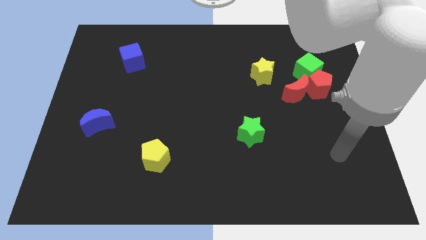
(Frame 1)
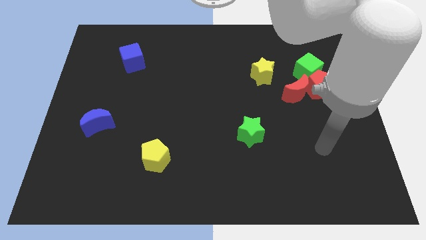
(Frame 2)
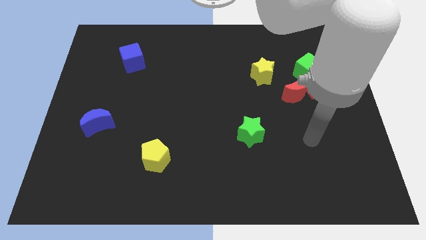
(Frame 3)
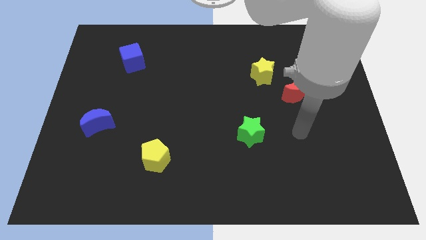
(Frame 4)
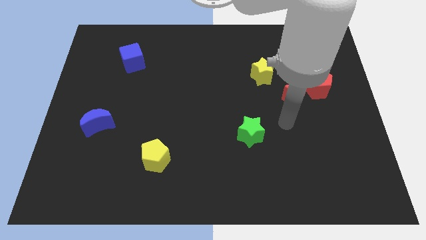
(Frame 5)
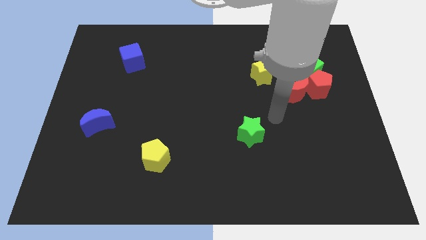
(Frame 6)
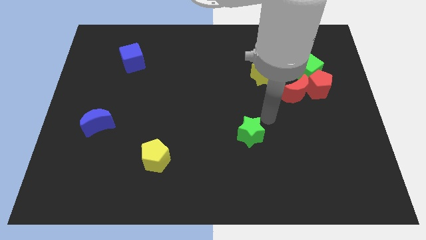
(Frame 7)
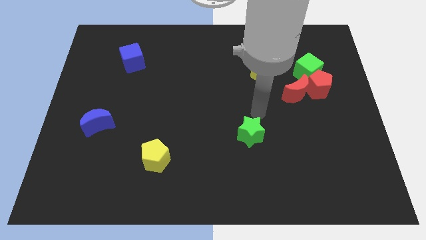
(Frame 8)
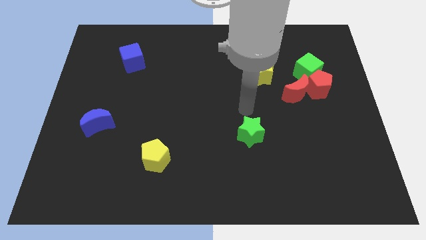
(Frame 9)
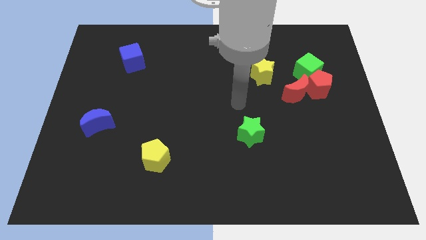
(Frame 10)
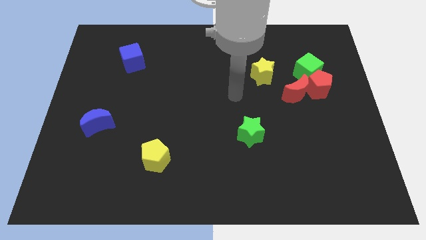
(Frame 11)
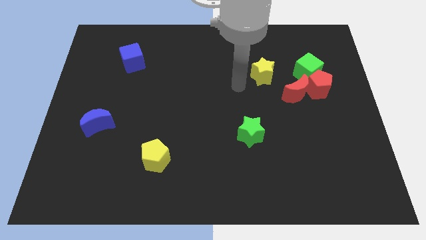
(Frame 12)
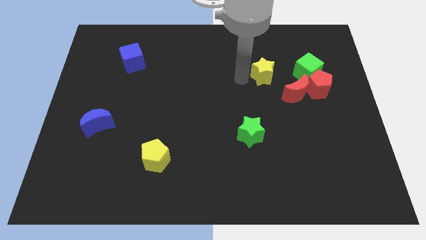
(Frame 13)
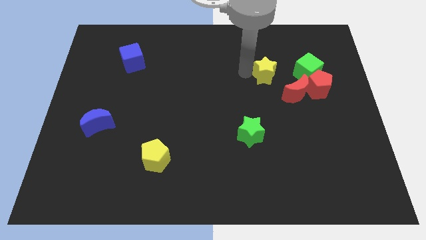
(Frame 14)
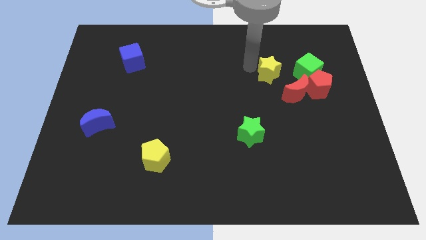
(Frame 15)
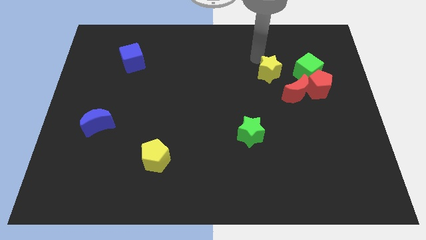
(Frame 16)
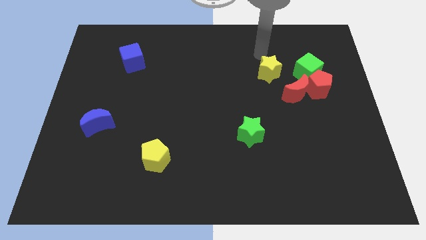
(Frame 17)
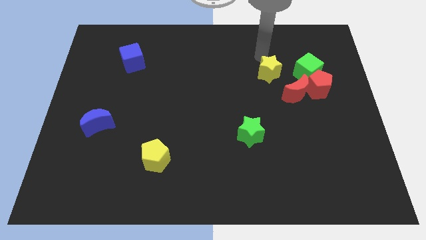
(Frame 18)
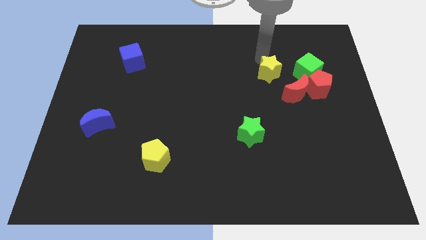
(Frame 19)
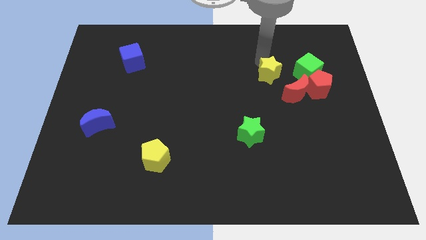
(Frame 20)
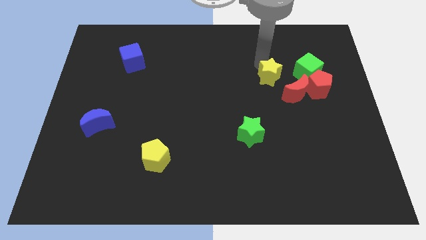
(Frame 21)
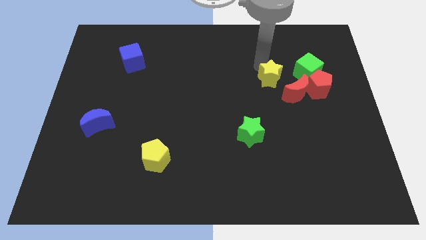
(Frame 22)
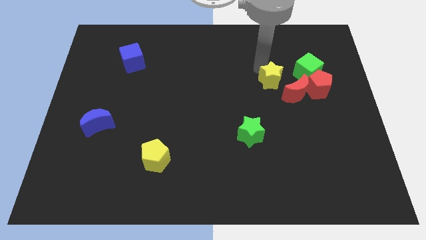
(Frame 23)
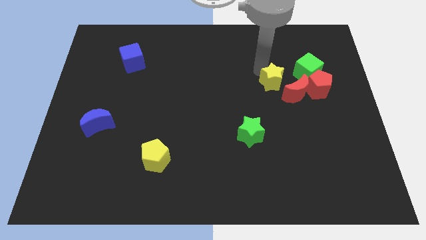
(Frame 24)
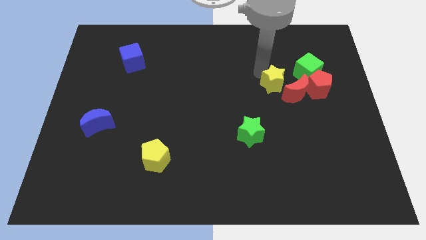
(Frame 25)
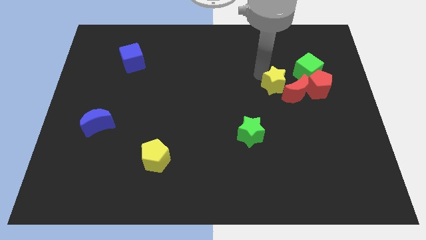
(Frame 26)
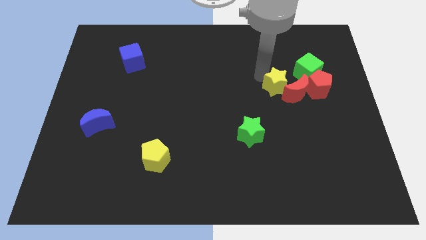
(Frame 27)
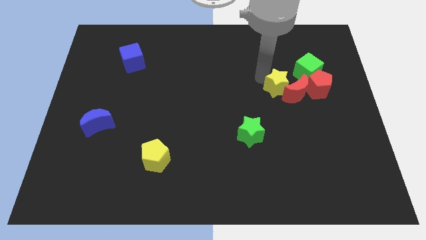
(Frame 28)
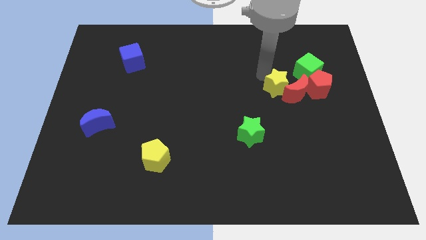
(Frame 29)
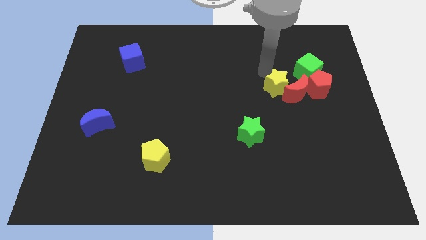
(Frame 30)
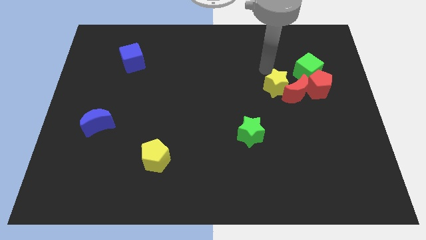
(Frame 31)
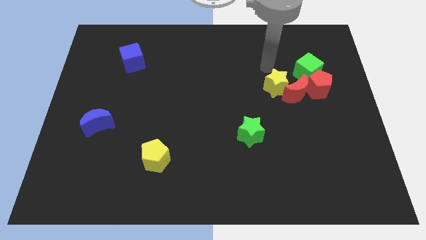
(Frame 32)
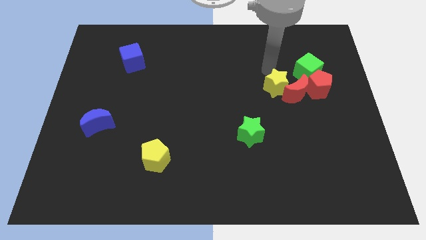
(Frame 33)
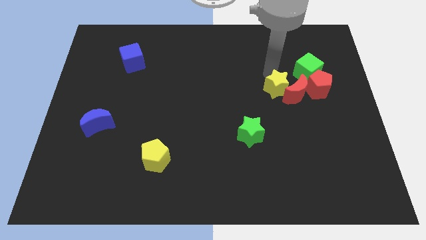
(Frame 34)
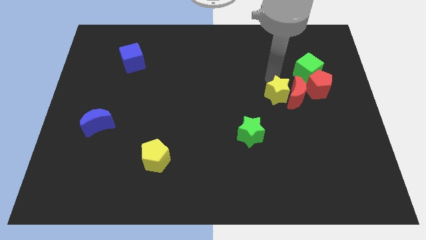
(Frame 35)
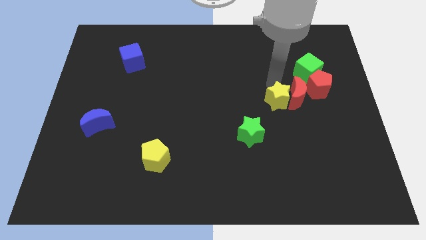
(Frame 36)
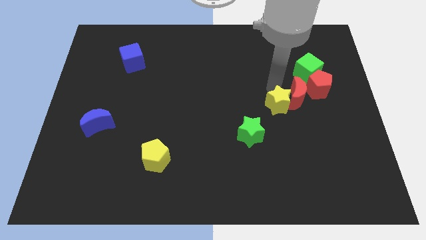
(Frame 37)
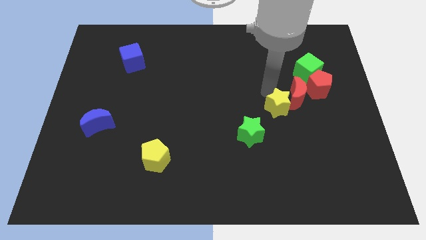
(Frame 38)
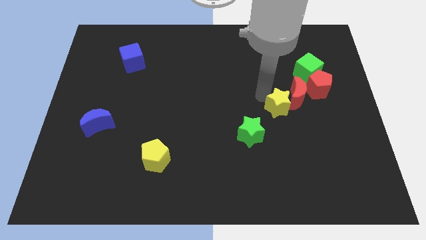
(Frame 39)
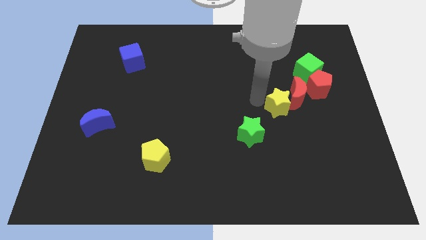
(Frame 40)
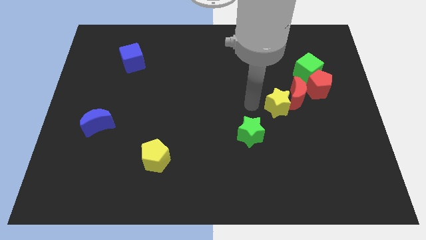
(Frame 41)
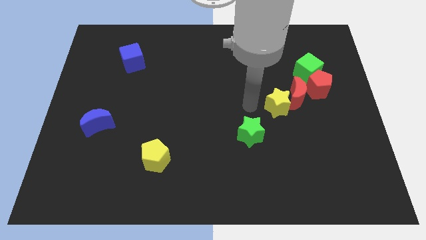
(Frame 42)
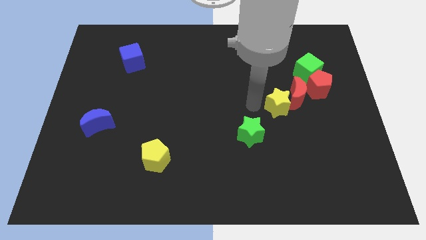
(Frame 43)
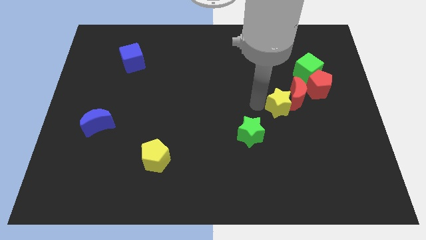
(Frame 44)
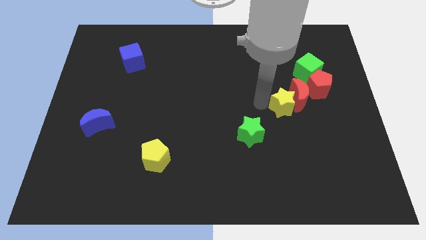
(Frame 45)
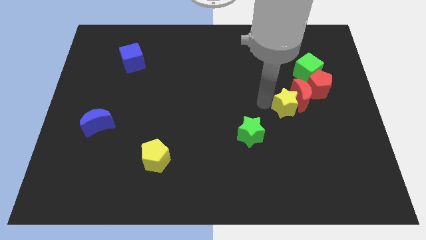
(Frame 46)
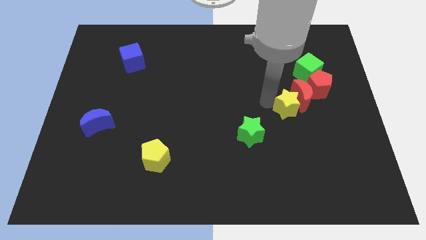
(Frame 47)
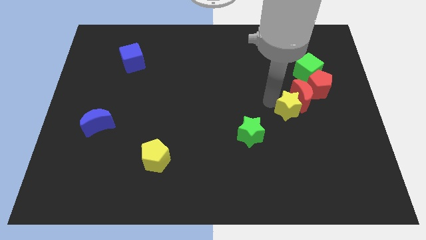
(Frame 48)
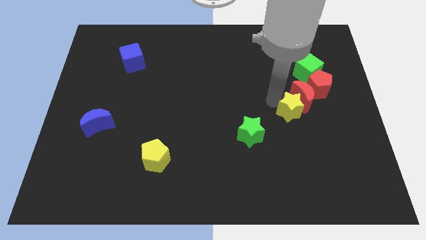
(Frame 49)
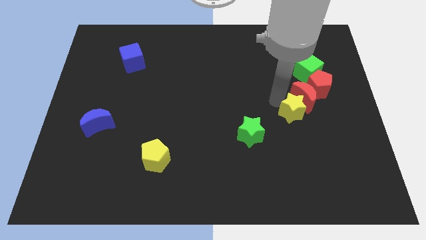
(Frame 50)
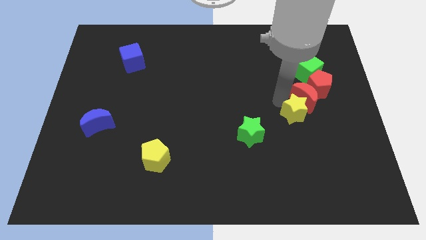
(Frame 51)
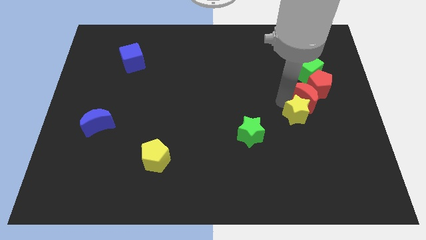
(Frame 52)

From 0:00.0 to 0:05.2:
move the yellow star to the bottom of the green cube

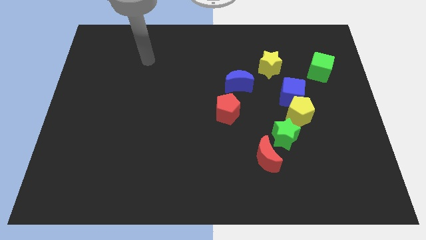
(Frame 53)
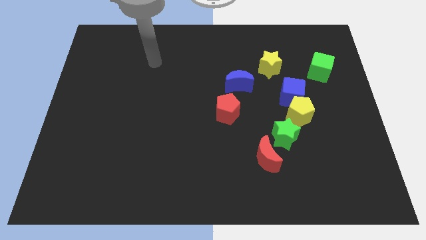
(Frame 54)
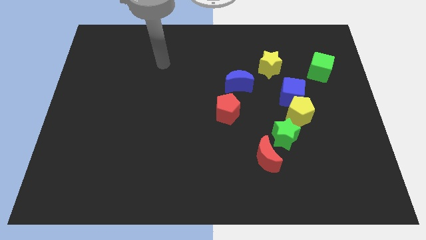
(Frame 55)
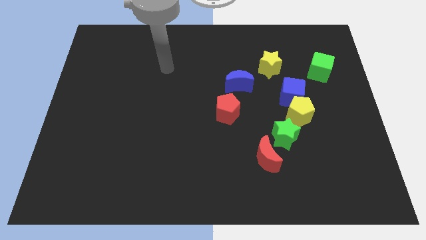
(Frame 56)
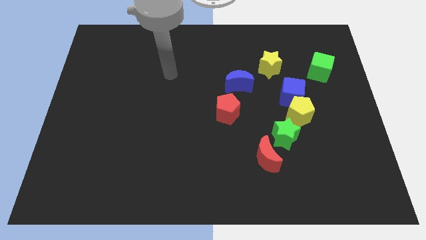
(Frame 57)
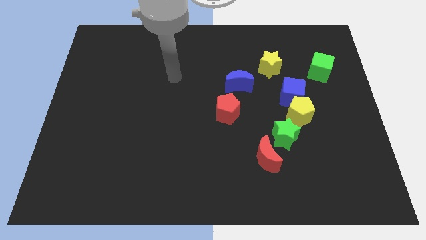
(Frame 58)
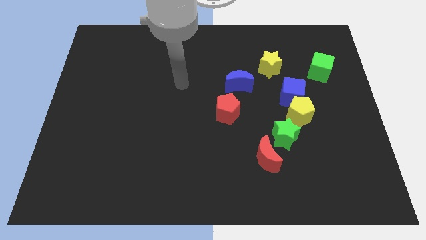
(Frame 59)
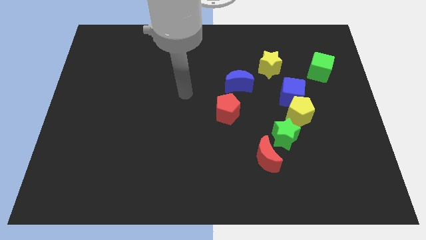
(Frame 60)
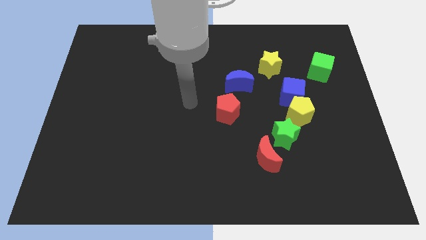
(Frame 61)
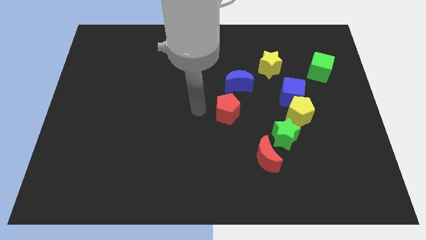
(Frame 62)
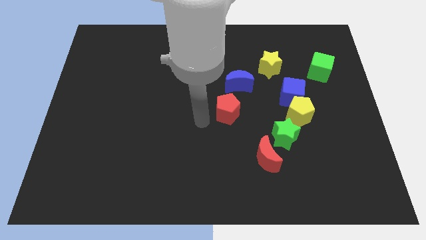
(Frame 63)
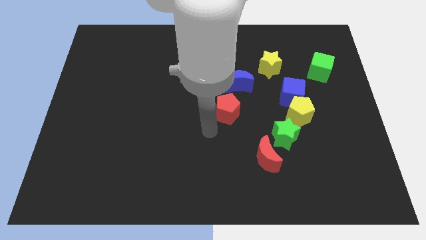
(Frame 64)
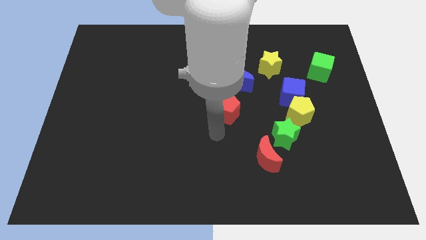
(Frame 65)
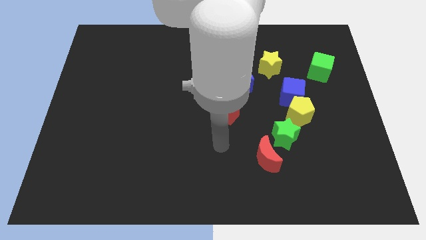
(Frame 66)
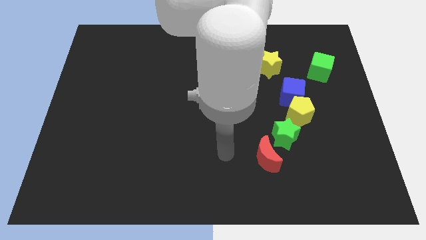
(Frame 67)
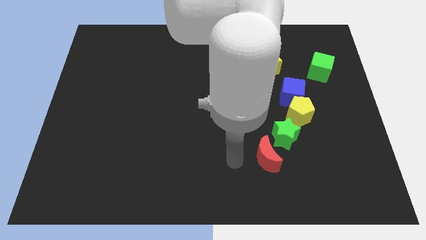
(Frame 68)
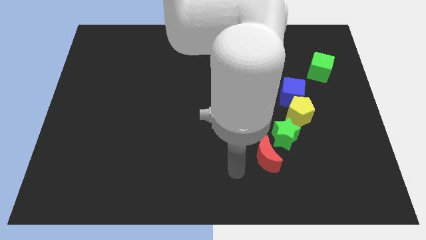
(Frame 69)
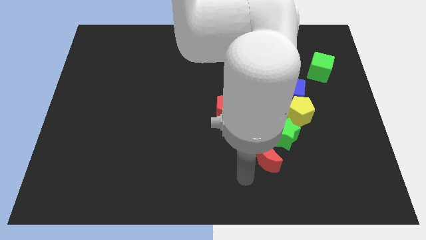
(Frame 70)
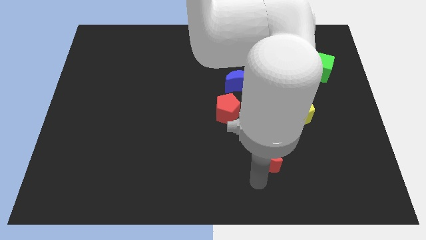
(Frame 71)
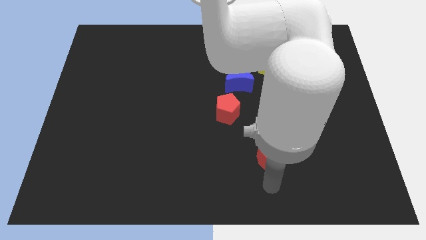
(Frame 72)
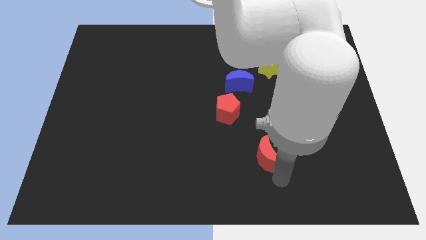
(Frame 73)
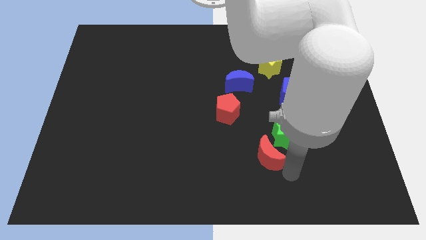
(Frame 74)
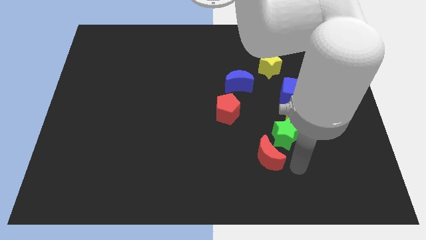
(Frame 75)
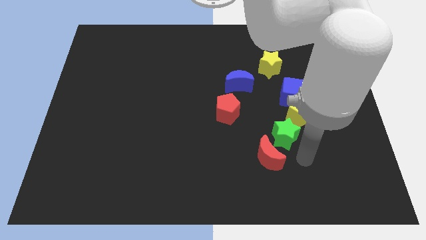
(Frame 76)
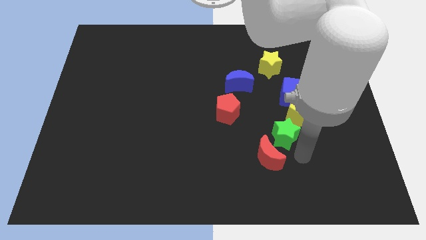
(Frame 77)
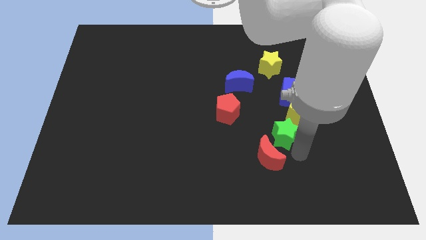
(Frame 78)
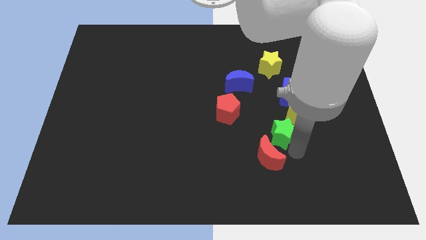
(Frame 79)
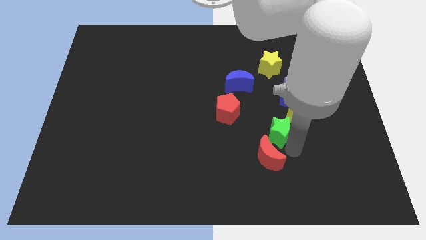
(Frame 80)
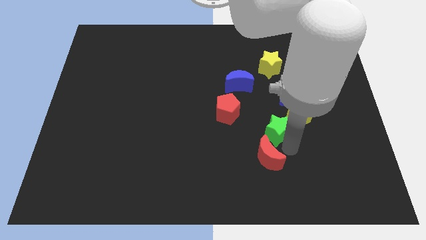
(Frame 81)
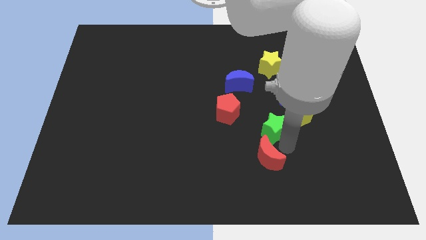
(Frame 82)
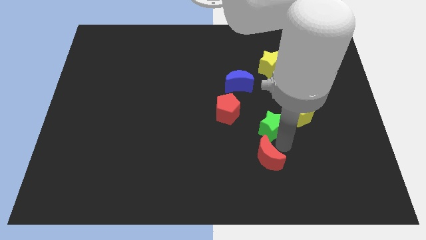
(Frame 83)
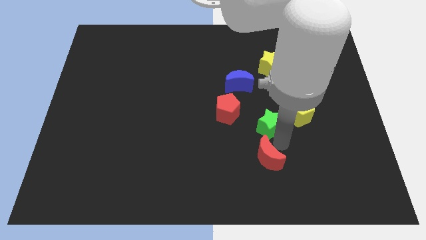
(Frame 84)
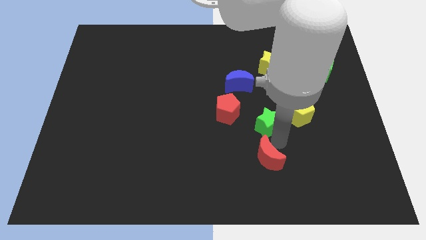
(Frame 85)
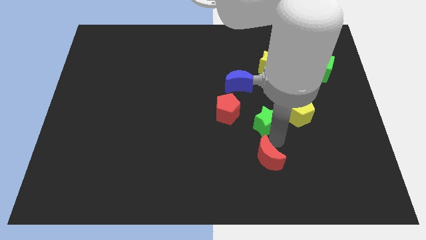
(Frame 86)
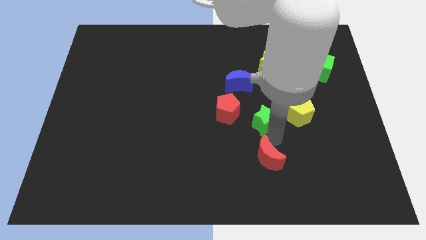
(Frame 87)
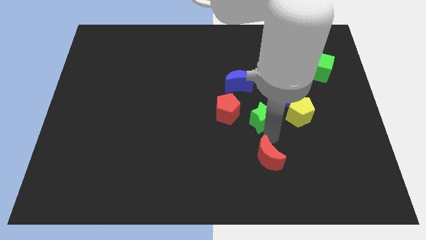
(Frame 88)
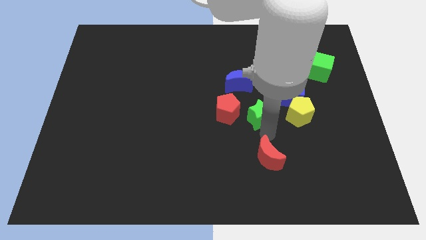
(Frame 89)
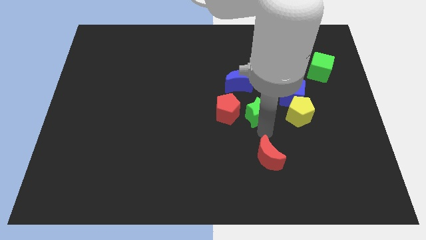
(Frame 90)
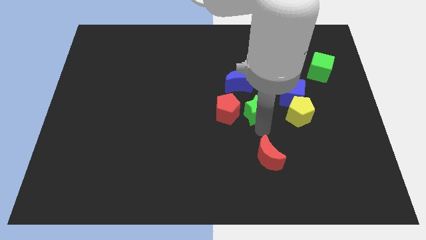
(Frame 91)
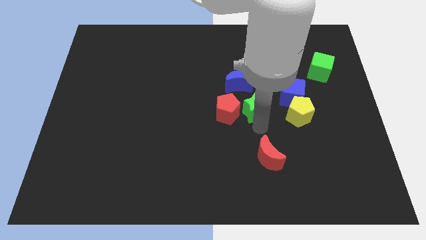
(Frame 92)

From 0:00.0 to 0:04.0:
slide the green star to the top right of the red pentagon
